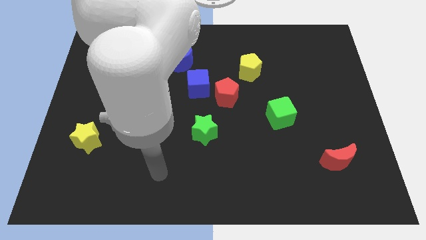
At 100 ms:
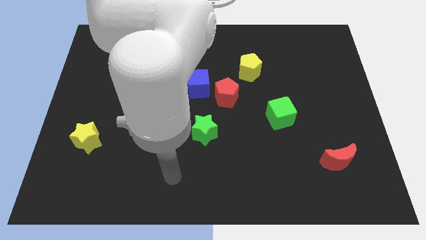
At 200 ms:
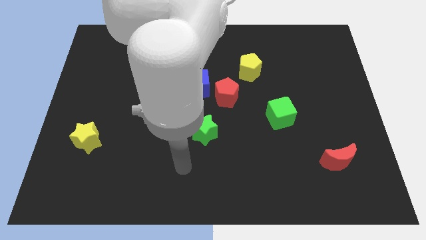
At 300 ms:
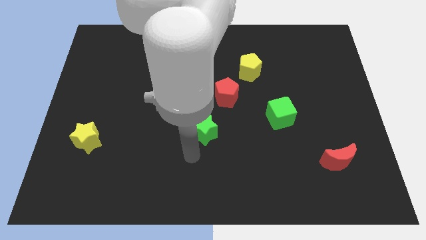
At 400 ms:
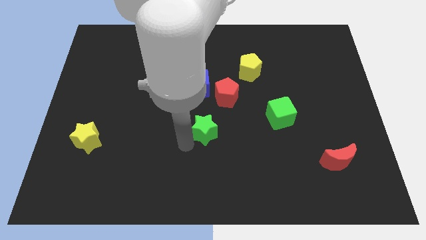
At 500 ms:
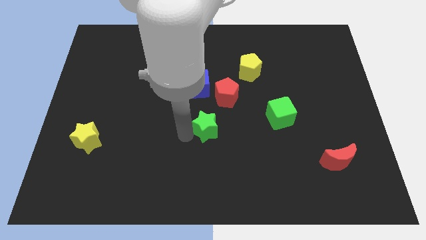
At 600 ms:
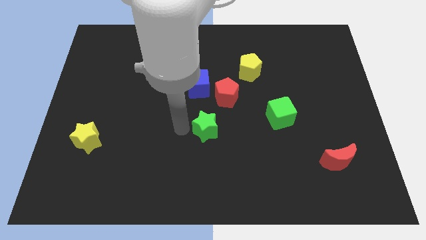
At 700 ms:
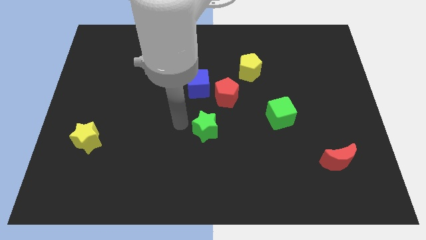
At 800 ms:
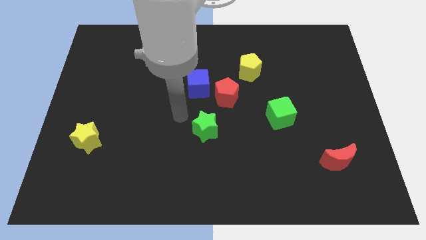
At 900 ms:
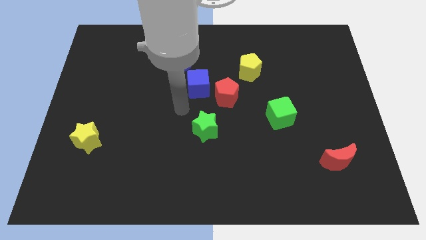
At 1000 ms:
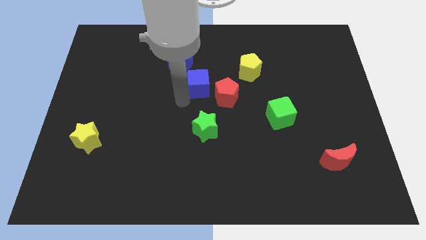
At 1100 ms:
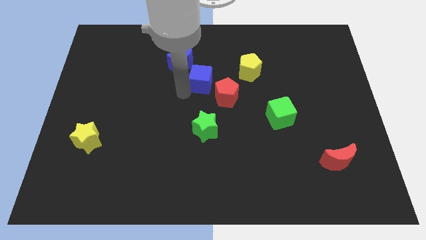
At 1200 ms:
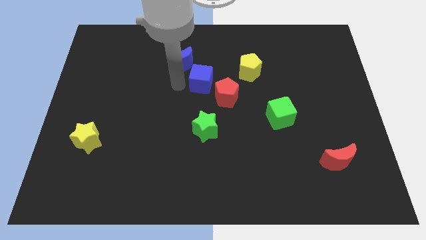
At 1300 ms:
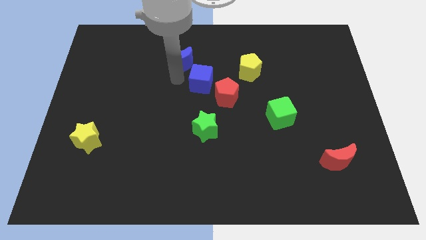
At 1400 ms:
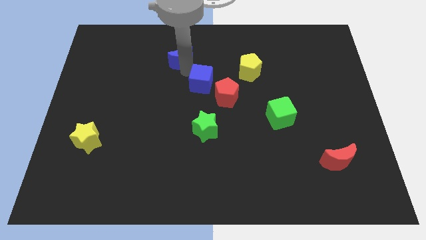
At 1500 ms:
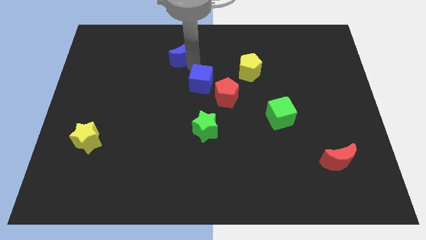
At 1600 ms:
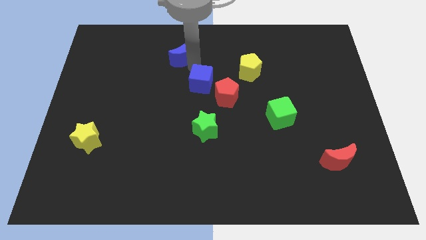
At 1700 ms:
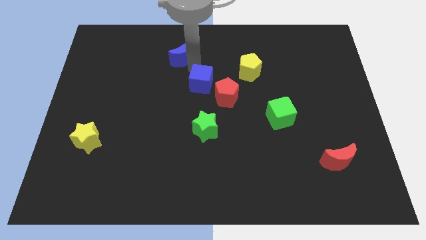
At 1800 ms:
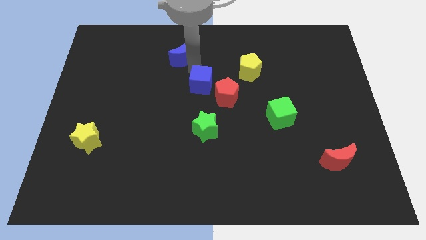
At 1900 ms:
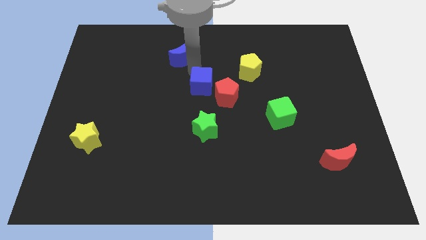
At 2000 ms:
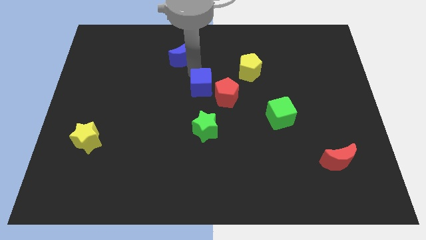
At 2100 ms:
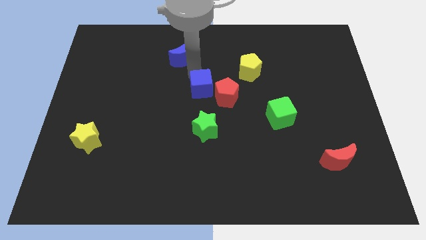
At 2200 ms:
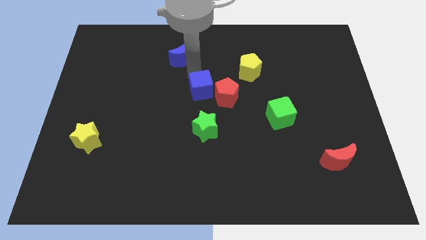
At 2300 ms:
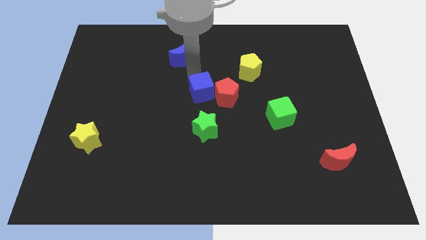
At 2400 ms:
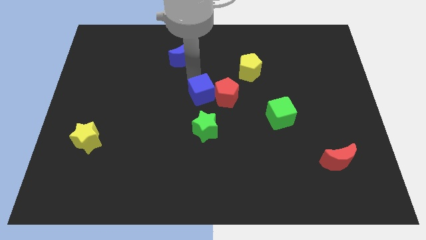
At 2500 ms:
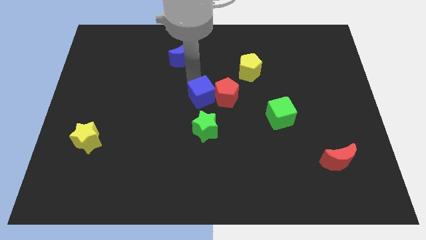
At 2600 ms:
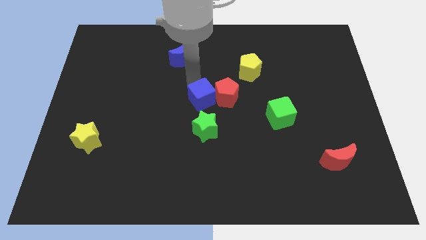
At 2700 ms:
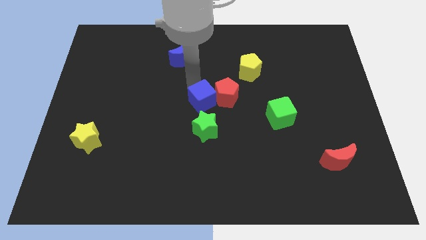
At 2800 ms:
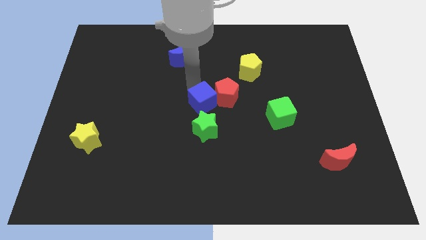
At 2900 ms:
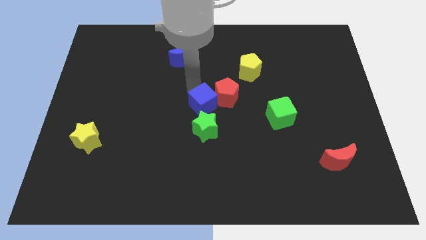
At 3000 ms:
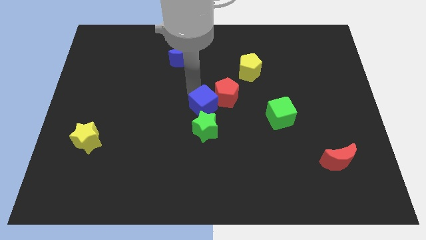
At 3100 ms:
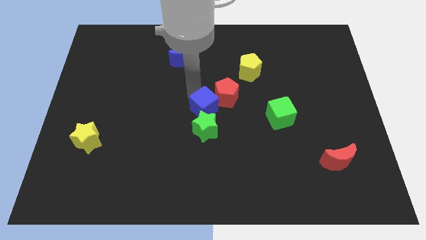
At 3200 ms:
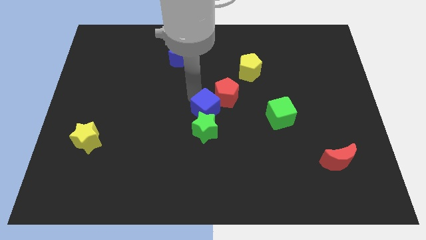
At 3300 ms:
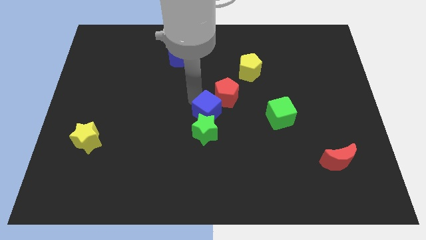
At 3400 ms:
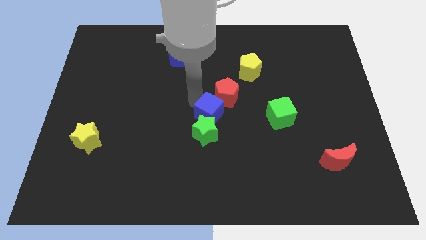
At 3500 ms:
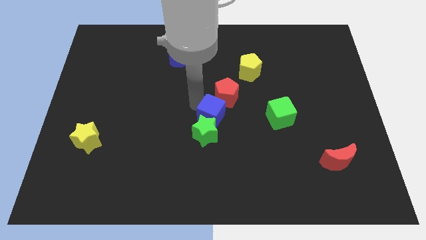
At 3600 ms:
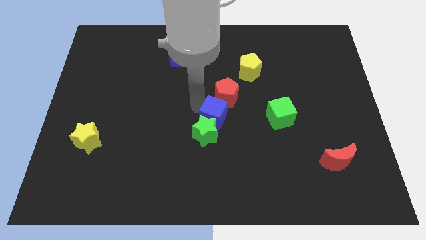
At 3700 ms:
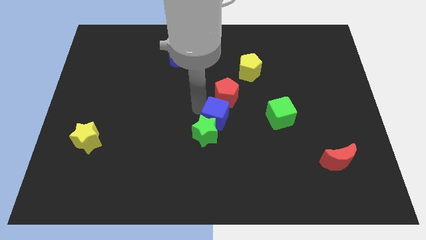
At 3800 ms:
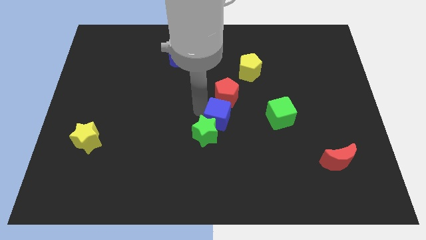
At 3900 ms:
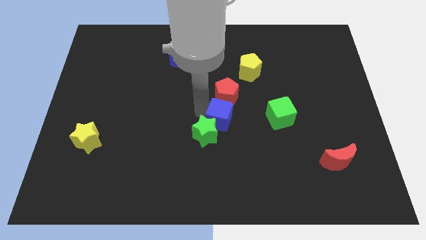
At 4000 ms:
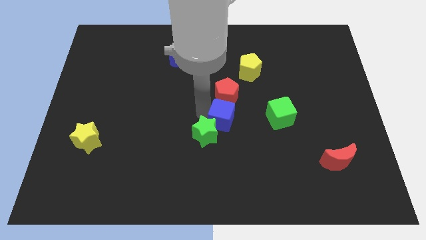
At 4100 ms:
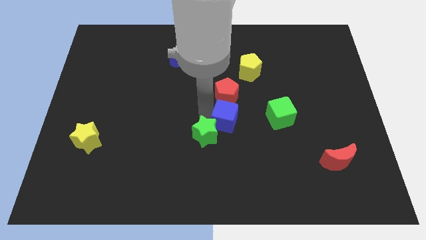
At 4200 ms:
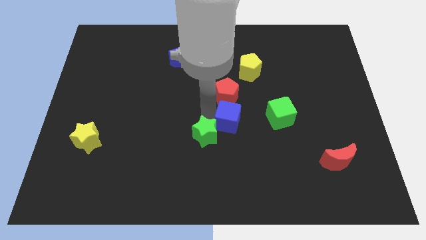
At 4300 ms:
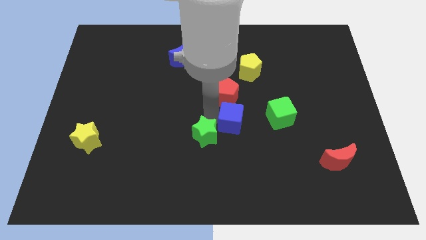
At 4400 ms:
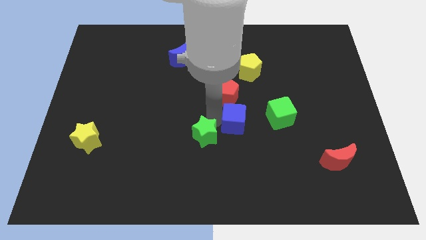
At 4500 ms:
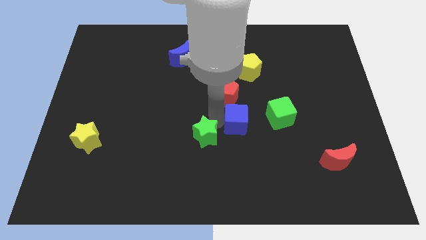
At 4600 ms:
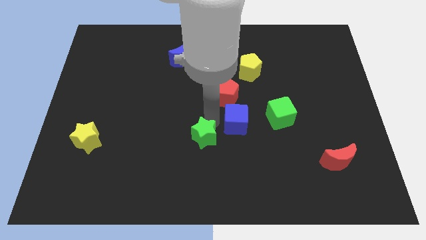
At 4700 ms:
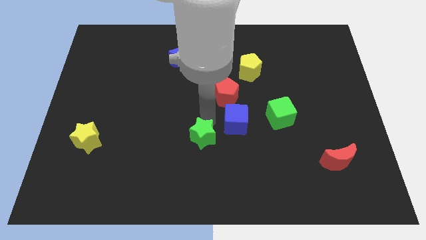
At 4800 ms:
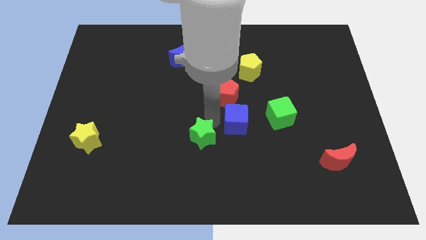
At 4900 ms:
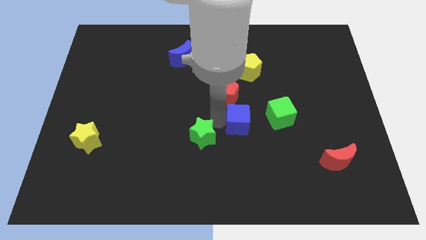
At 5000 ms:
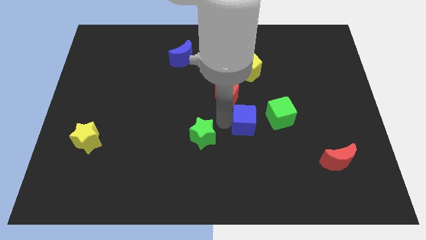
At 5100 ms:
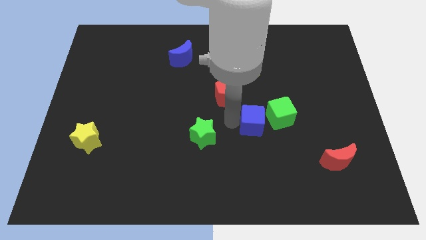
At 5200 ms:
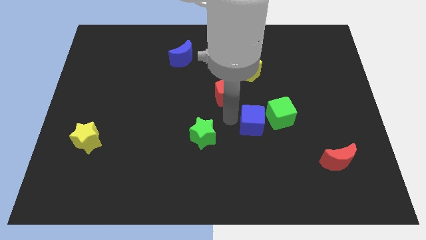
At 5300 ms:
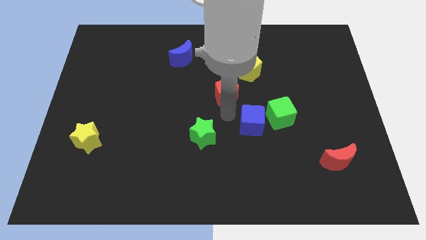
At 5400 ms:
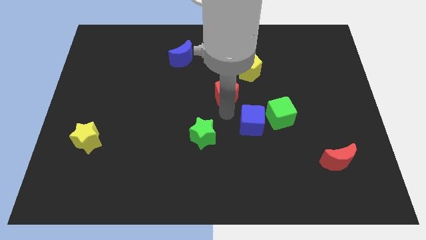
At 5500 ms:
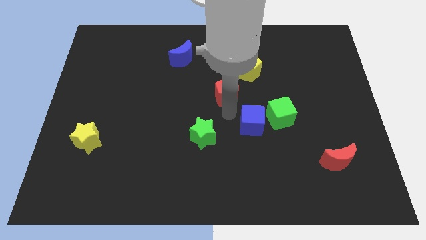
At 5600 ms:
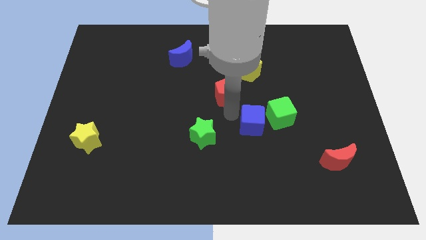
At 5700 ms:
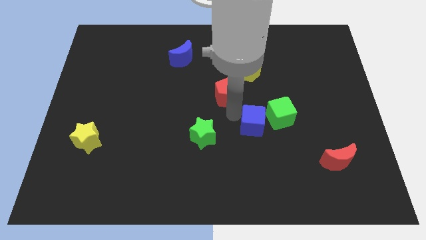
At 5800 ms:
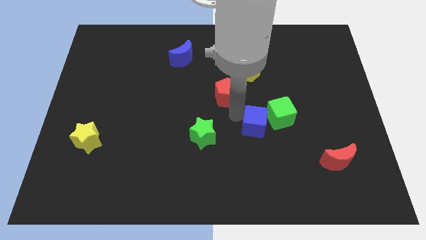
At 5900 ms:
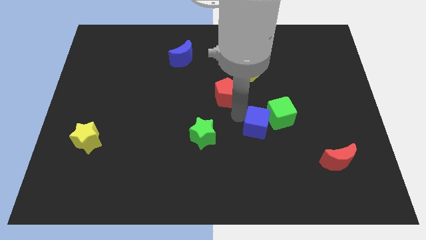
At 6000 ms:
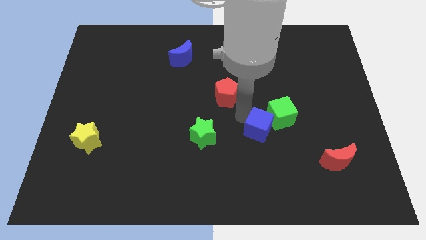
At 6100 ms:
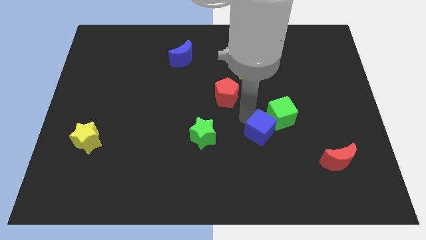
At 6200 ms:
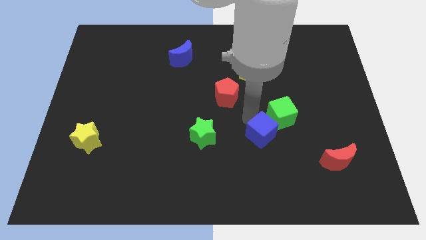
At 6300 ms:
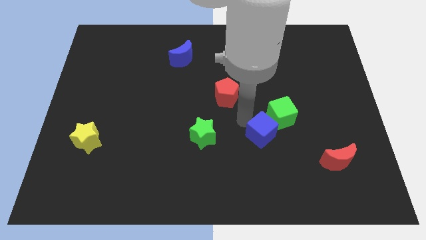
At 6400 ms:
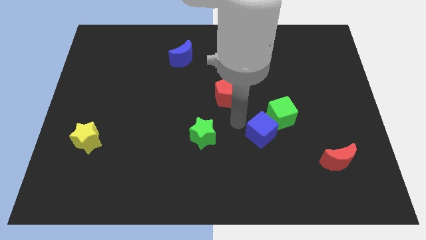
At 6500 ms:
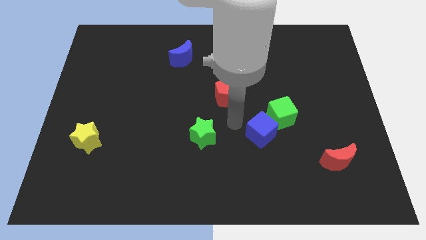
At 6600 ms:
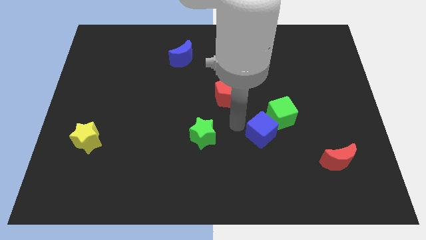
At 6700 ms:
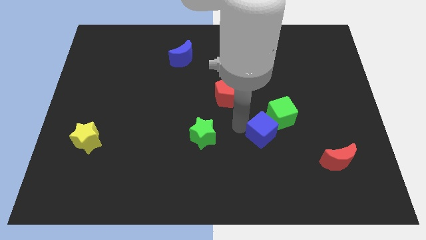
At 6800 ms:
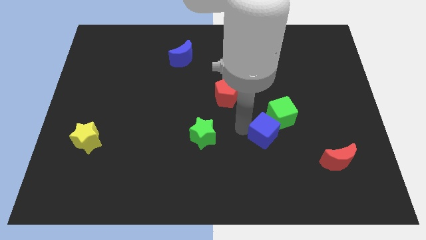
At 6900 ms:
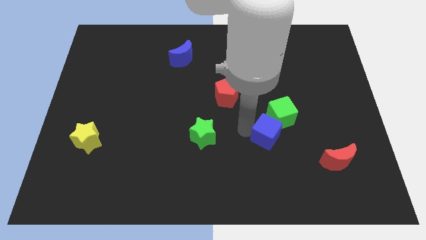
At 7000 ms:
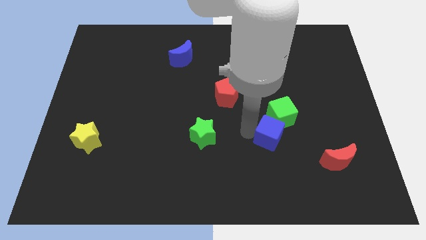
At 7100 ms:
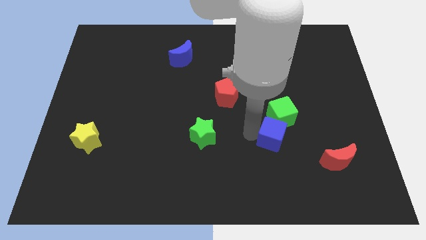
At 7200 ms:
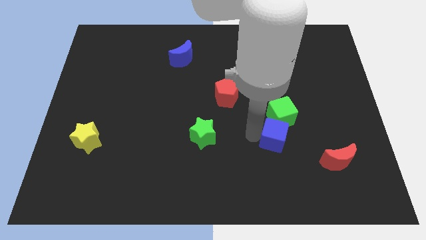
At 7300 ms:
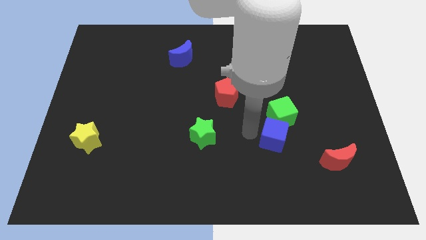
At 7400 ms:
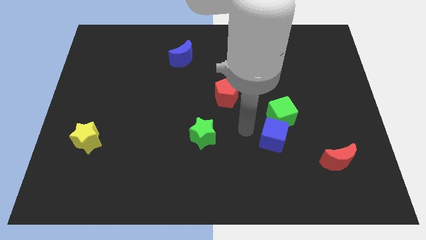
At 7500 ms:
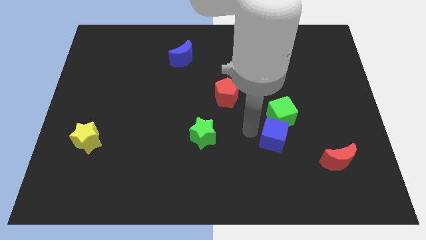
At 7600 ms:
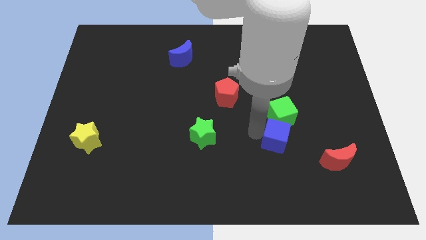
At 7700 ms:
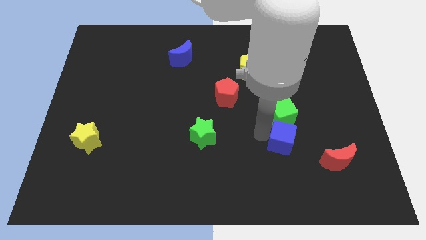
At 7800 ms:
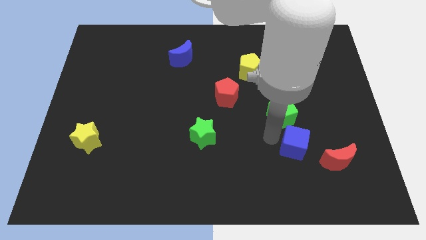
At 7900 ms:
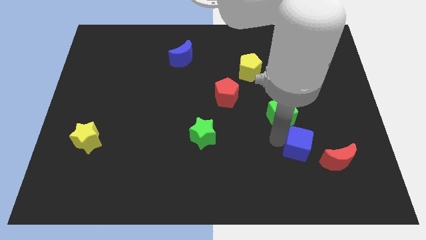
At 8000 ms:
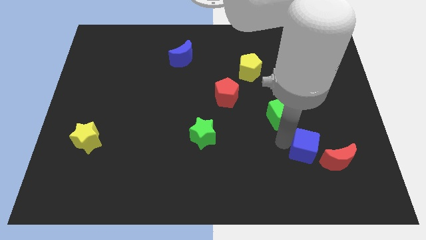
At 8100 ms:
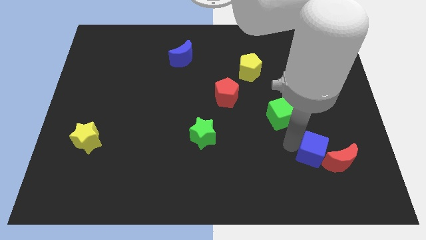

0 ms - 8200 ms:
put the blue cube close to the red moon
